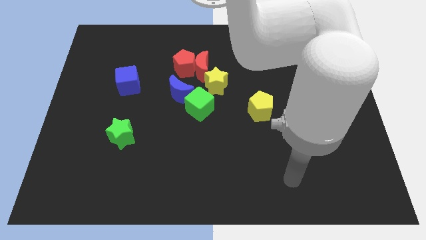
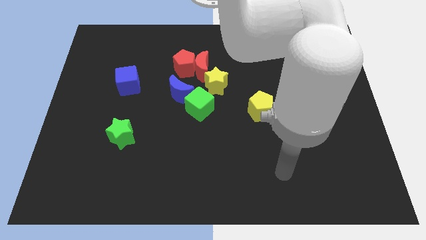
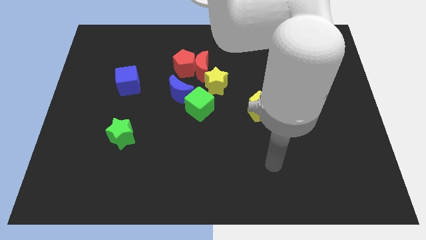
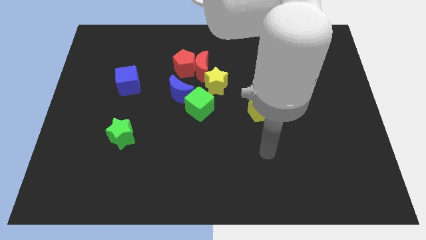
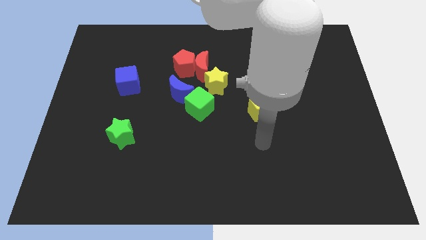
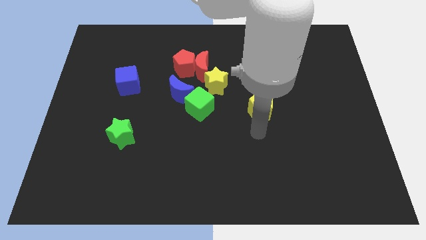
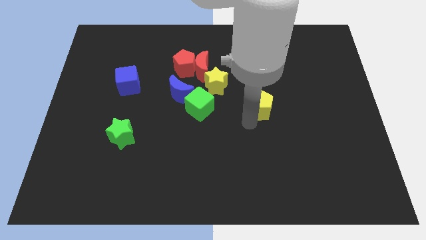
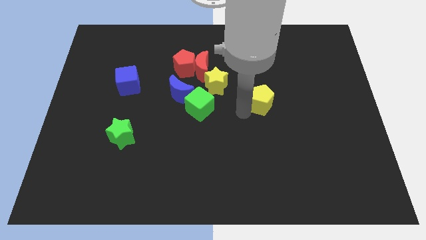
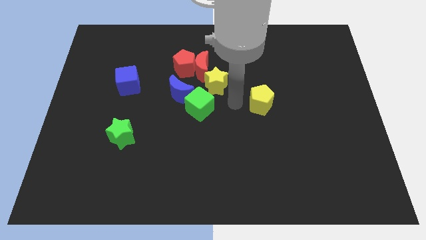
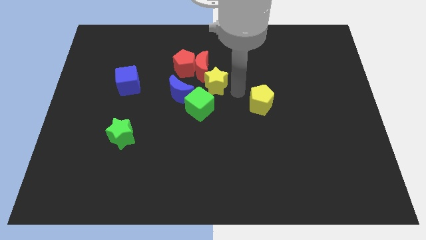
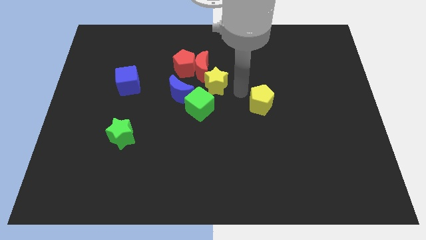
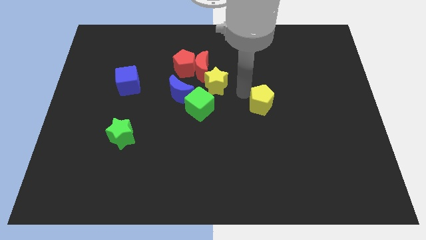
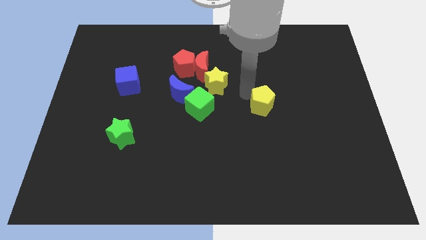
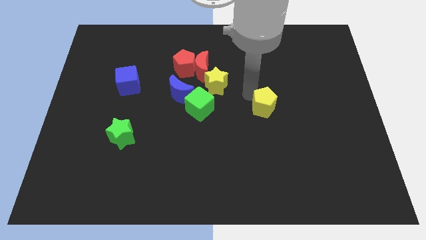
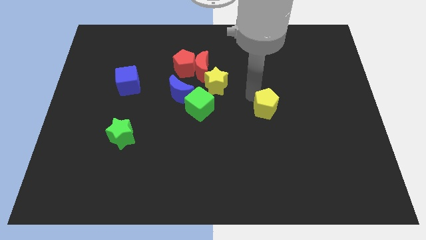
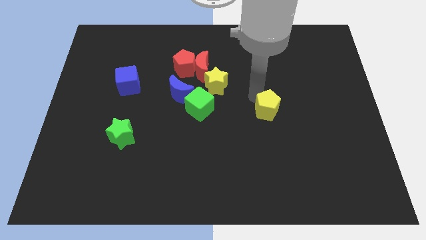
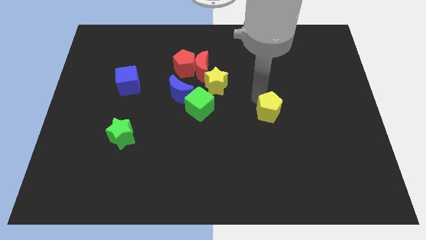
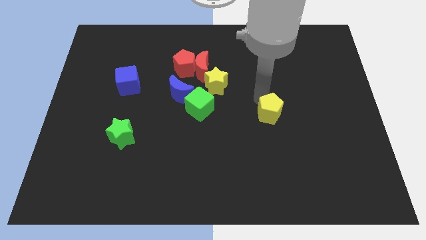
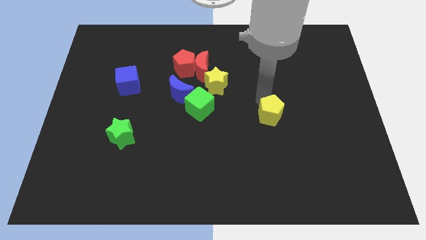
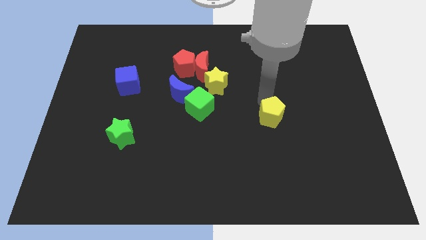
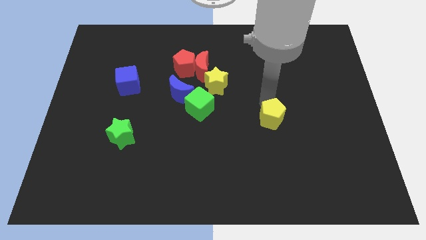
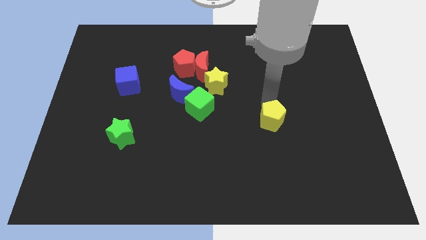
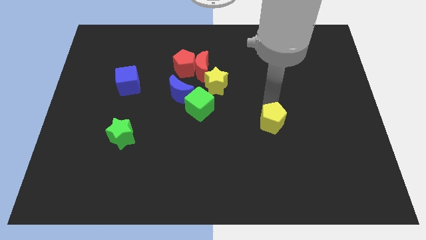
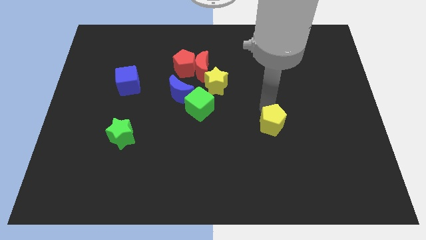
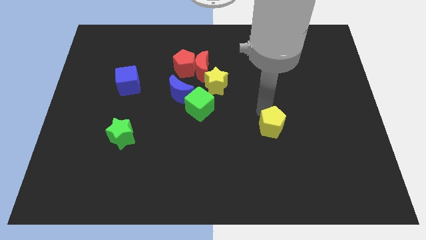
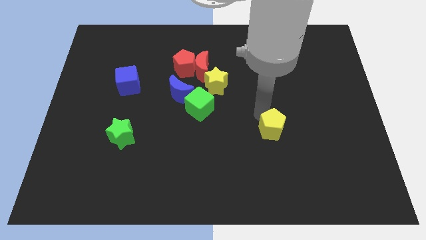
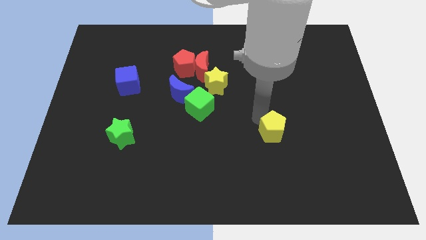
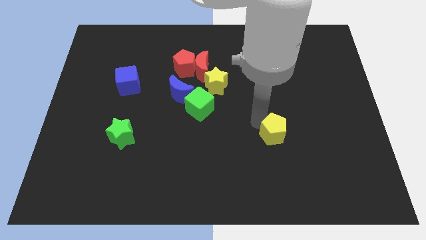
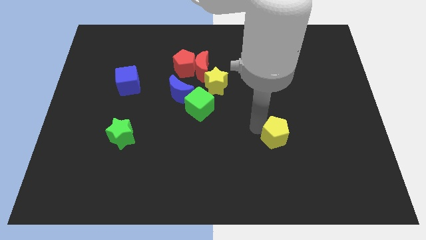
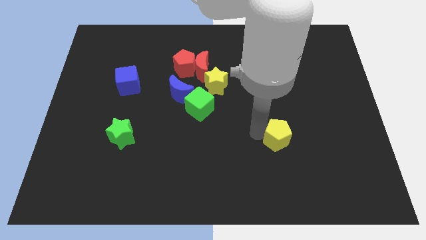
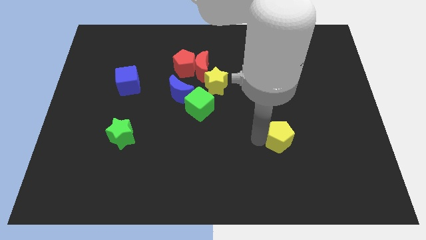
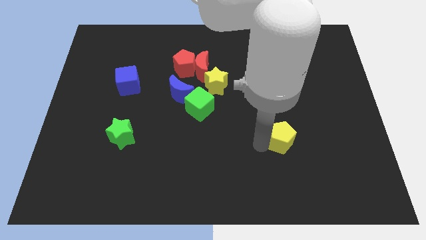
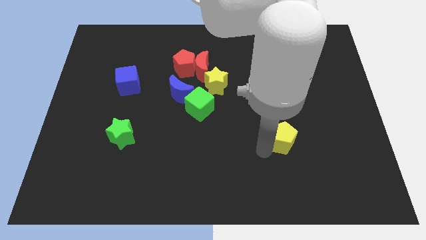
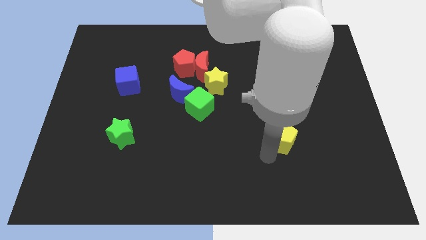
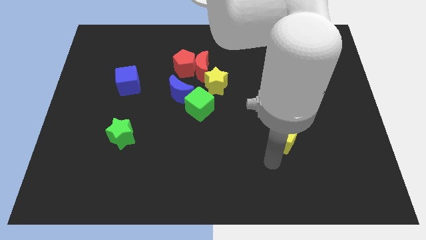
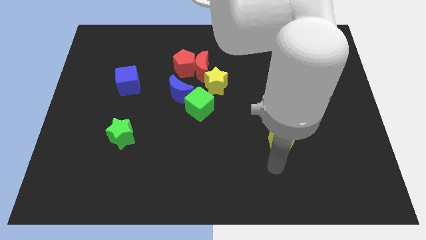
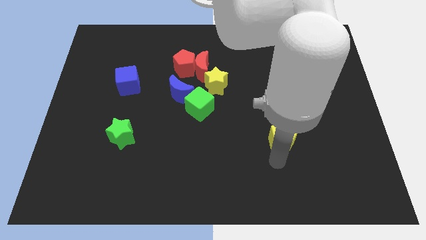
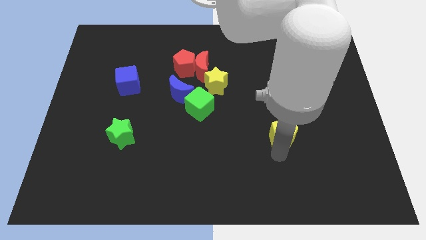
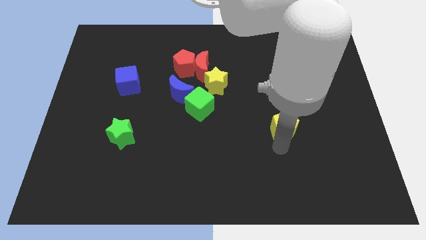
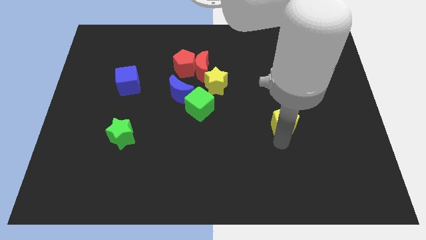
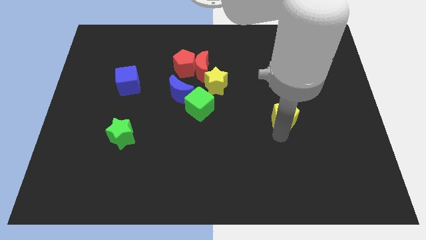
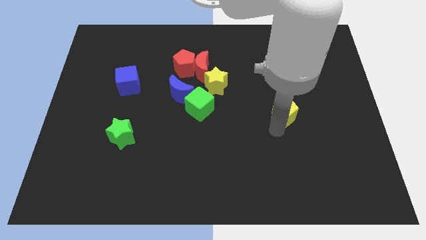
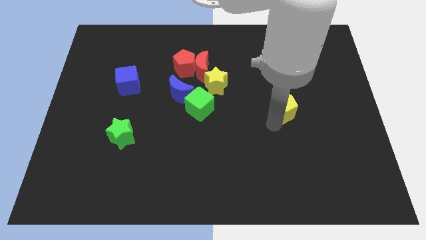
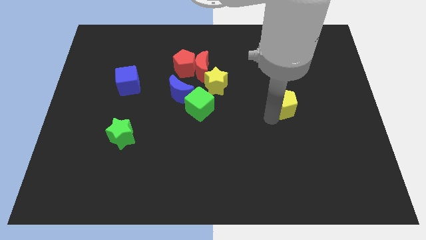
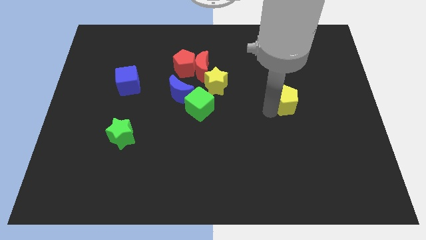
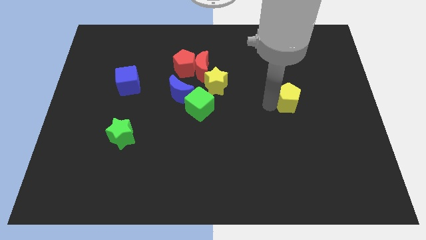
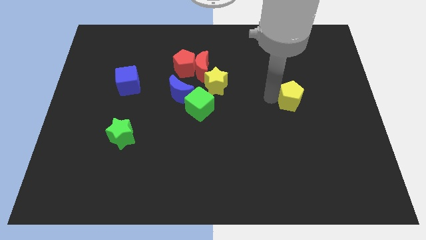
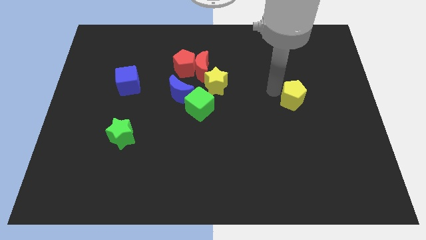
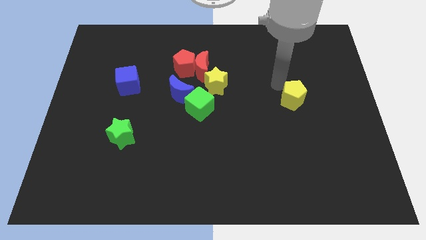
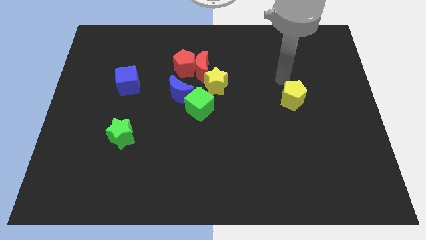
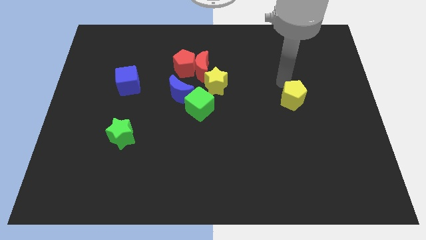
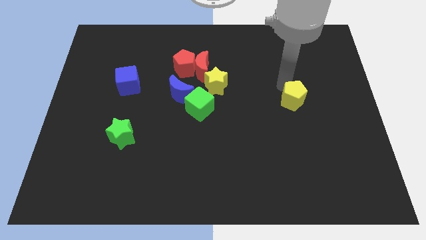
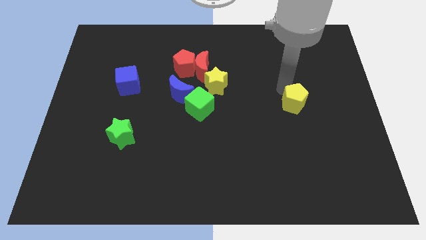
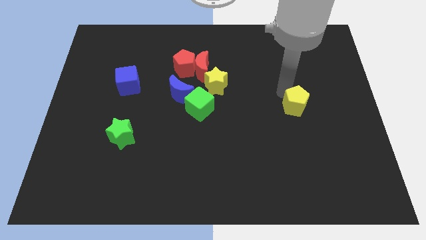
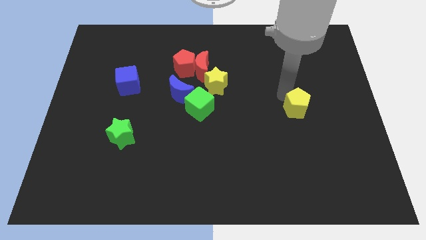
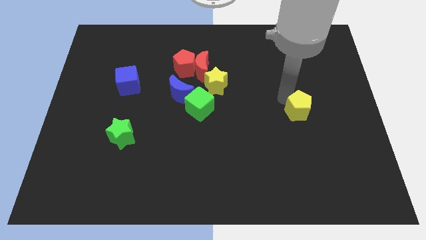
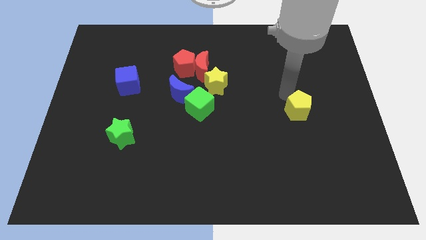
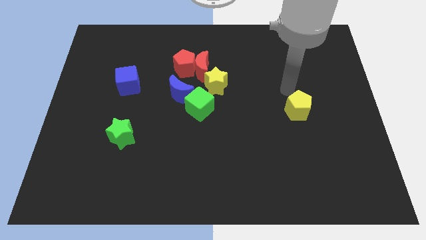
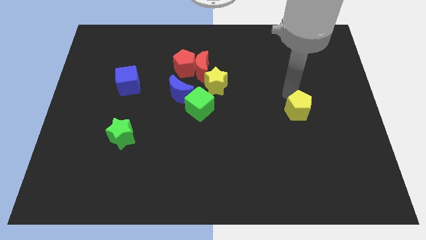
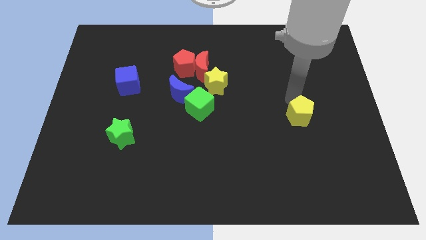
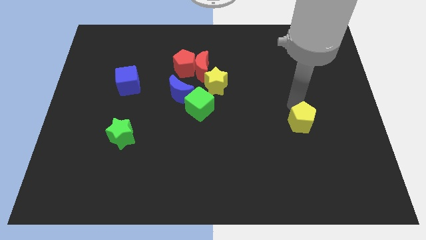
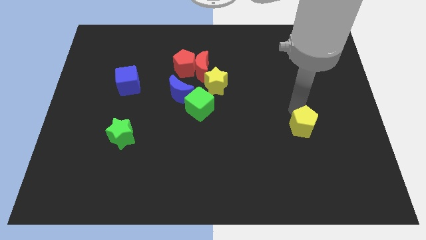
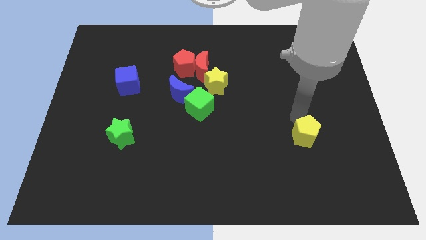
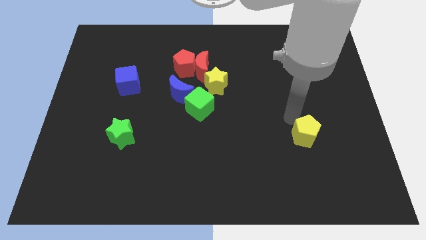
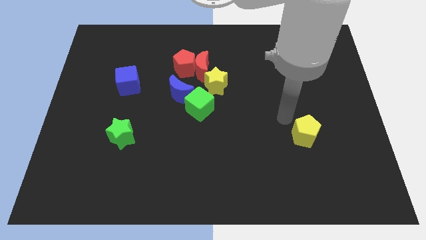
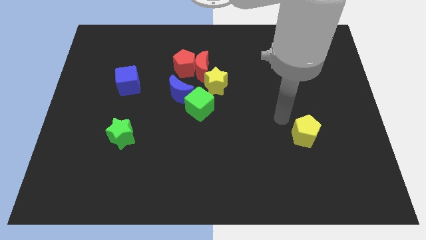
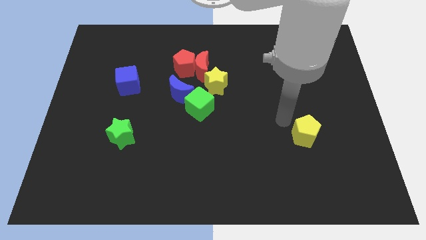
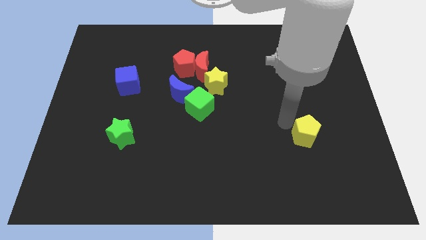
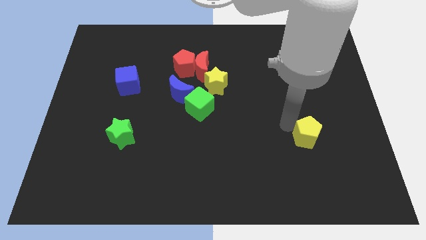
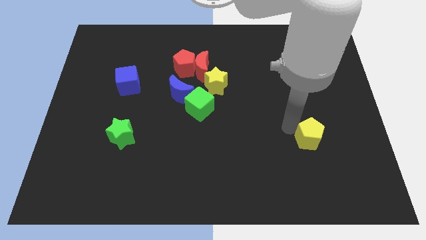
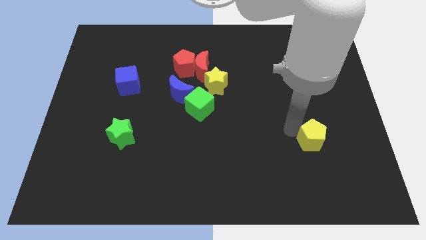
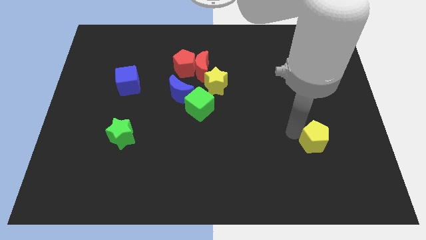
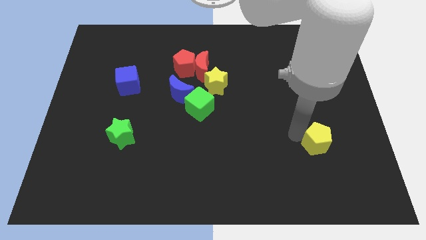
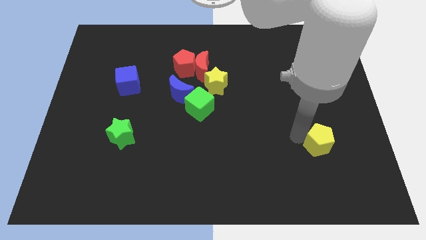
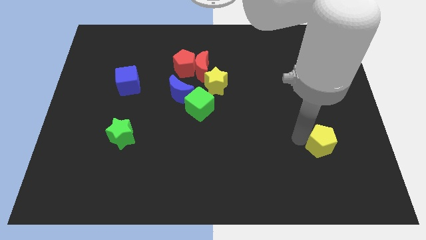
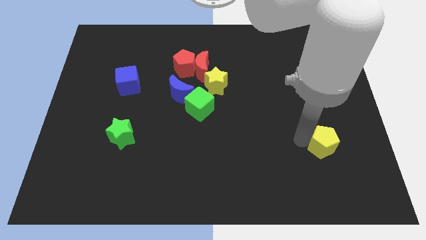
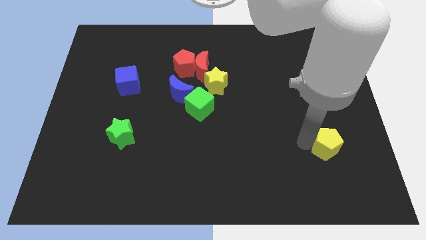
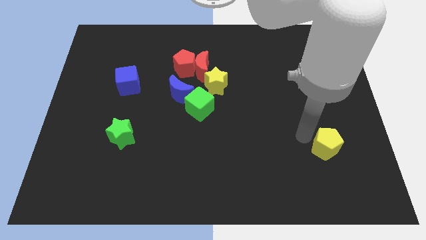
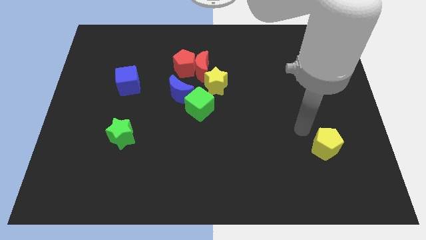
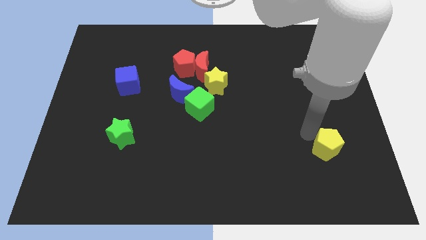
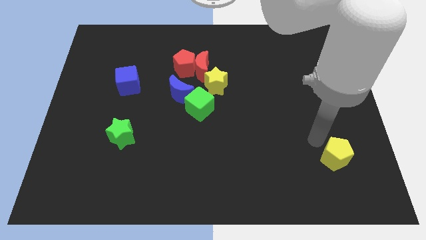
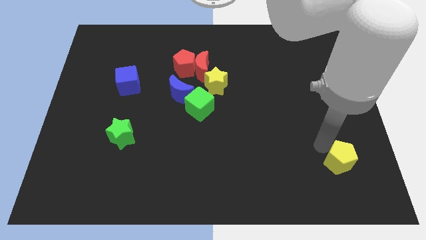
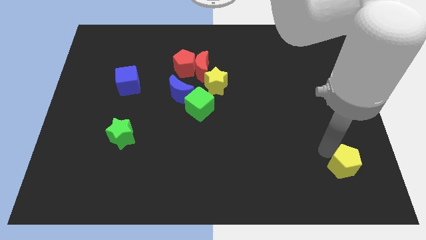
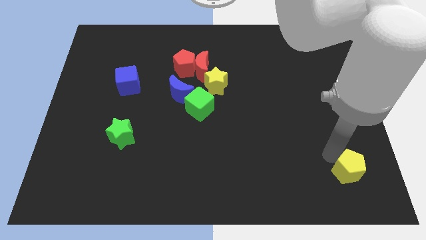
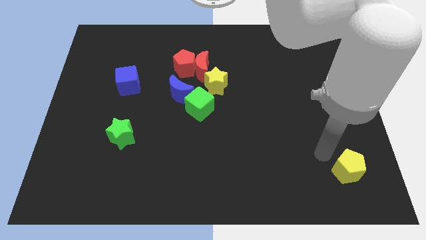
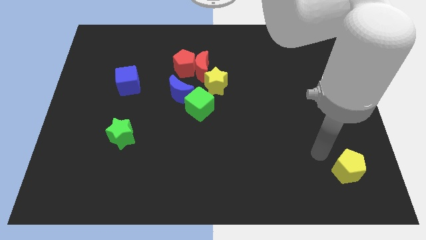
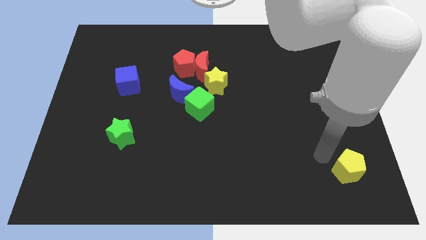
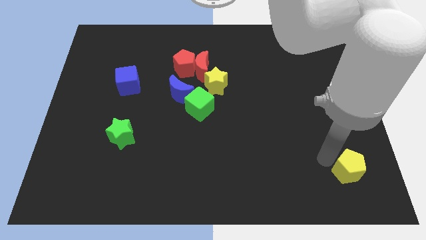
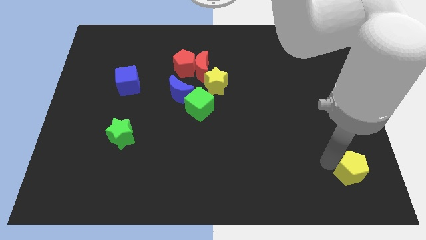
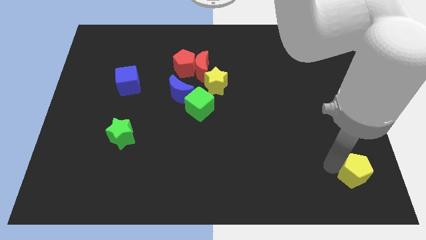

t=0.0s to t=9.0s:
move the yellow pentagon to the bottom right of the board
